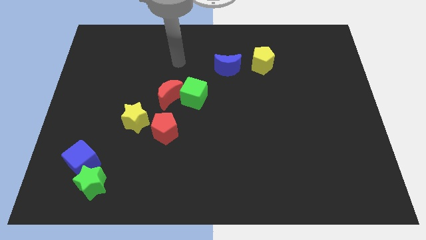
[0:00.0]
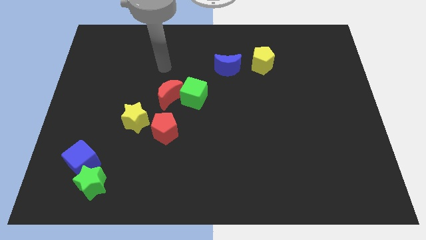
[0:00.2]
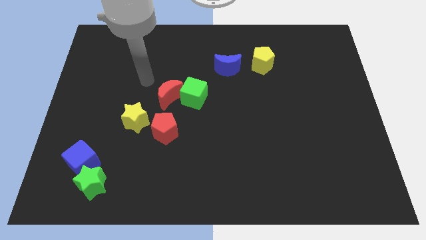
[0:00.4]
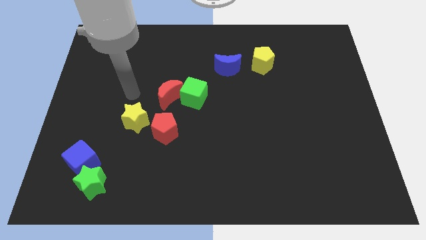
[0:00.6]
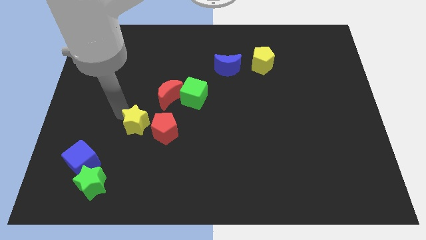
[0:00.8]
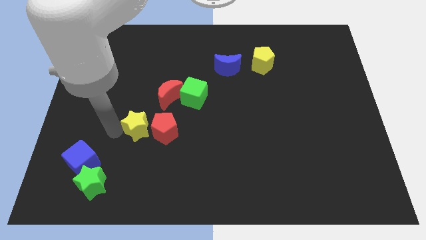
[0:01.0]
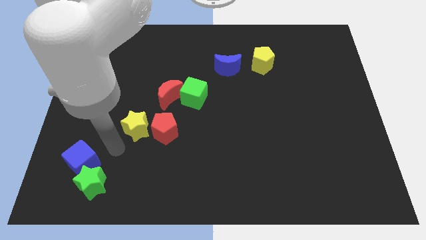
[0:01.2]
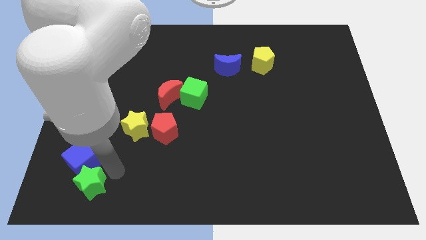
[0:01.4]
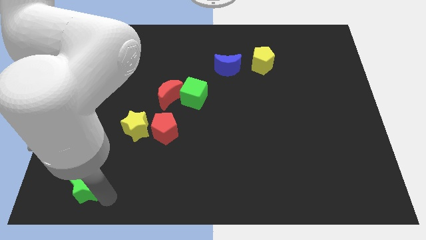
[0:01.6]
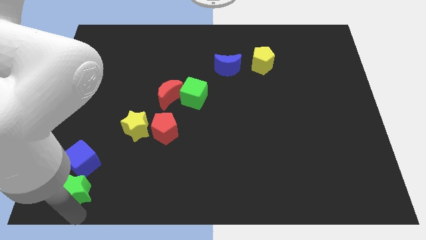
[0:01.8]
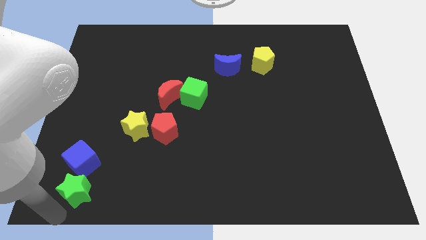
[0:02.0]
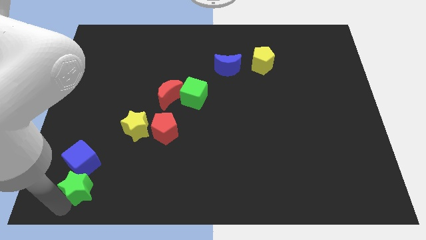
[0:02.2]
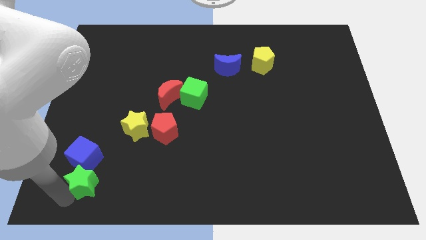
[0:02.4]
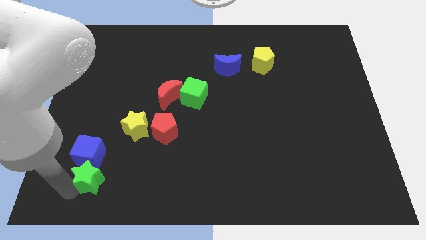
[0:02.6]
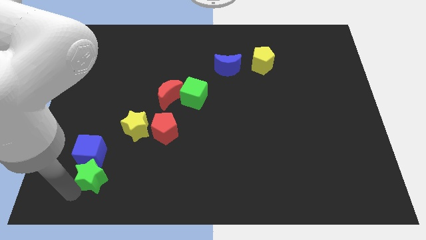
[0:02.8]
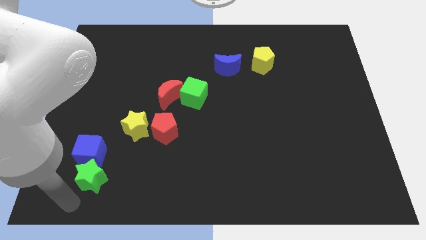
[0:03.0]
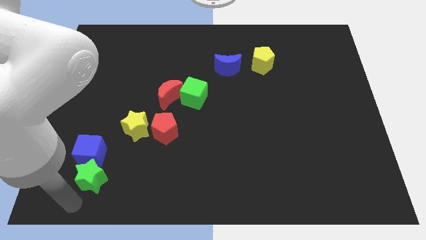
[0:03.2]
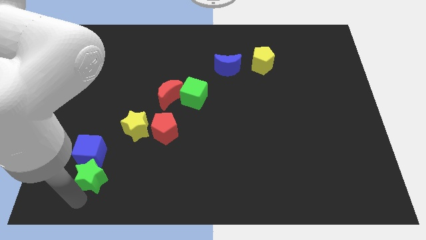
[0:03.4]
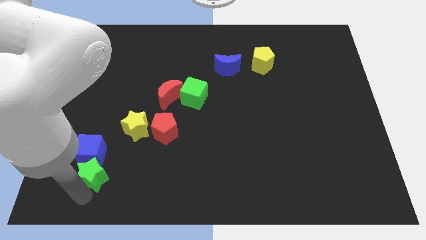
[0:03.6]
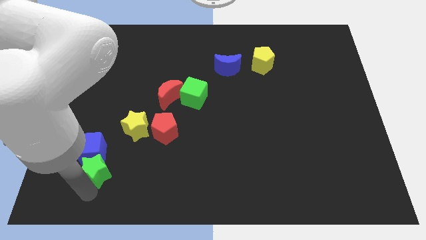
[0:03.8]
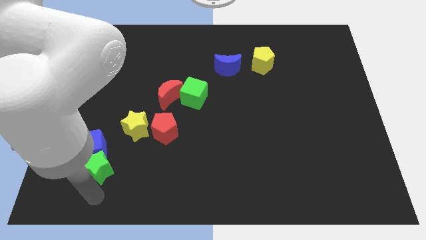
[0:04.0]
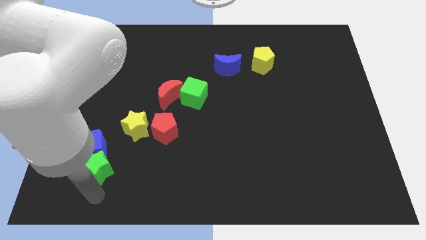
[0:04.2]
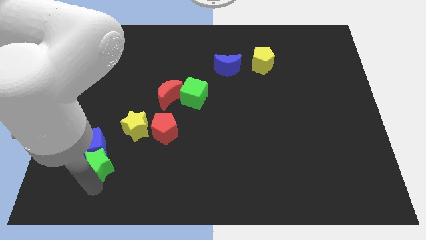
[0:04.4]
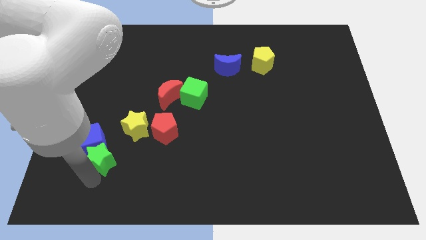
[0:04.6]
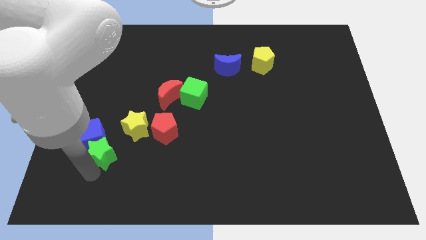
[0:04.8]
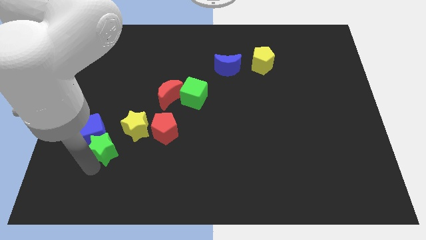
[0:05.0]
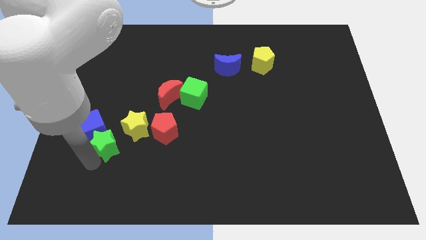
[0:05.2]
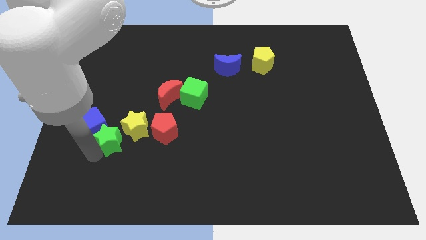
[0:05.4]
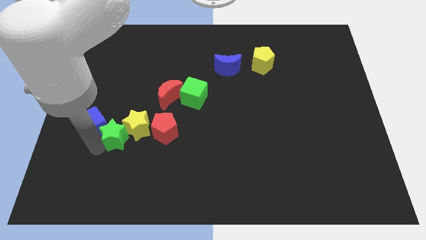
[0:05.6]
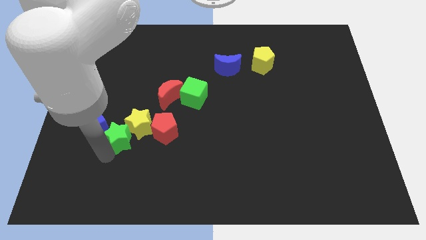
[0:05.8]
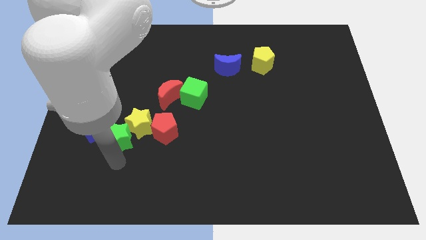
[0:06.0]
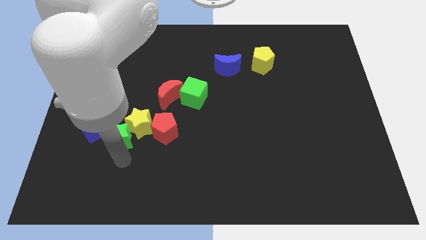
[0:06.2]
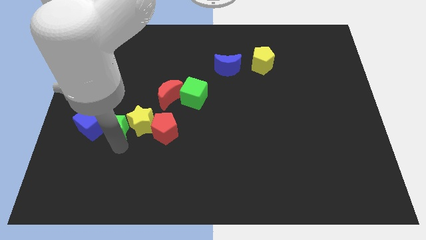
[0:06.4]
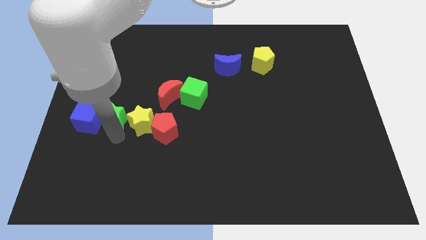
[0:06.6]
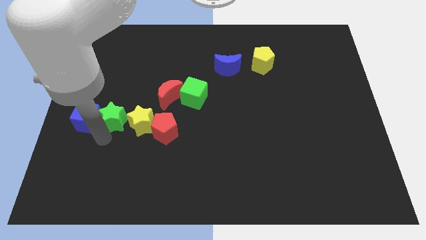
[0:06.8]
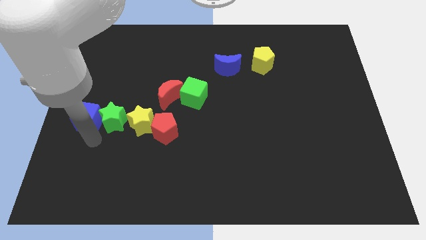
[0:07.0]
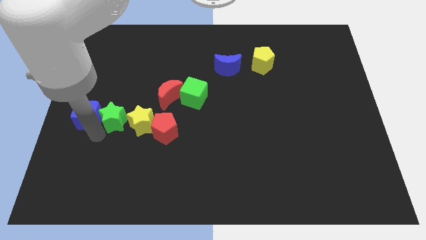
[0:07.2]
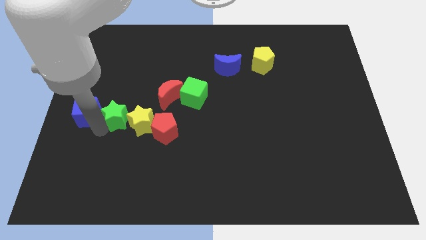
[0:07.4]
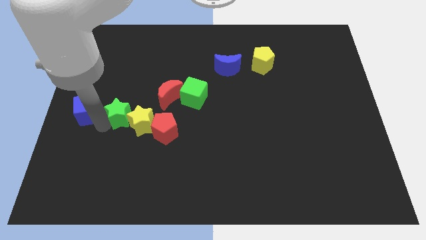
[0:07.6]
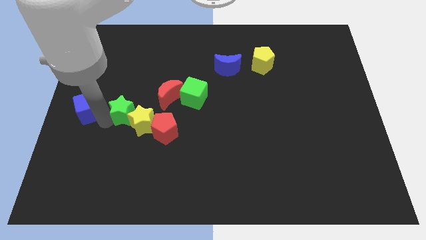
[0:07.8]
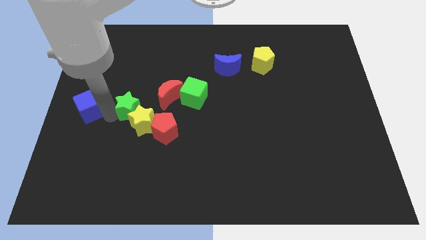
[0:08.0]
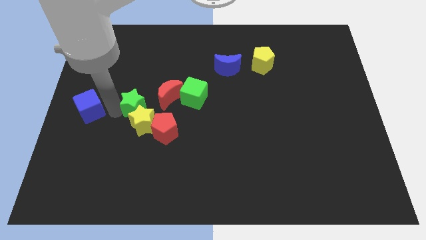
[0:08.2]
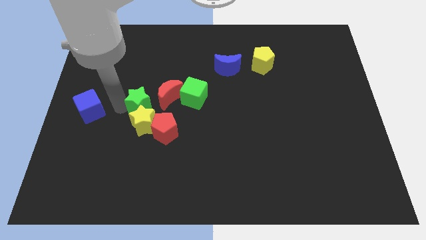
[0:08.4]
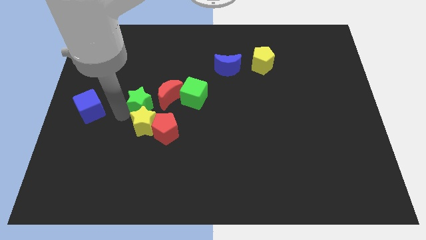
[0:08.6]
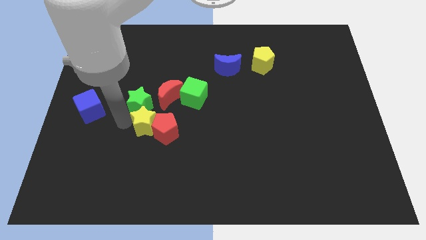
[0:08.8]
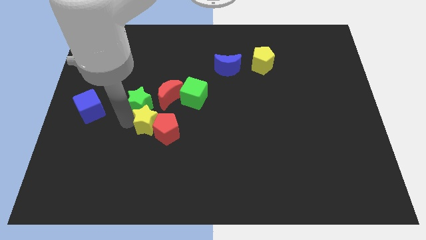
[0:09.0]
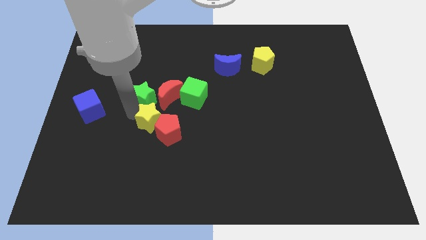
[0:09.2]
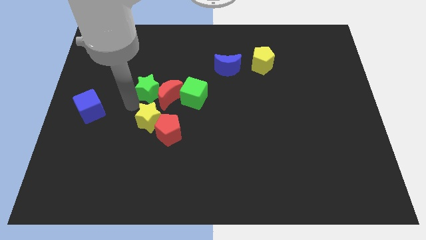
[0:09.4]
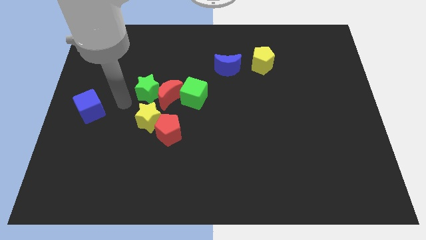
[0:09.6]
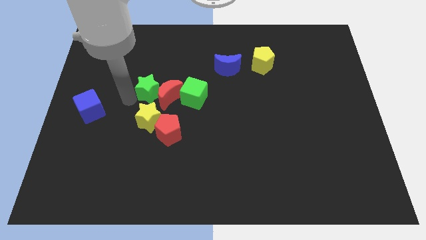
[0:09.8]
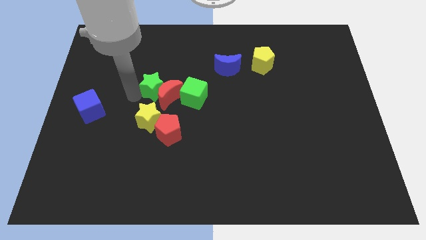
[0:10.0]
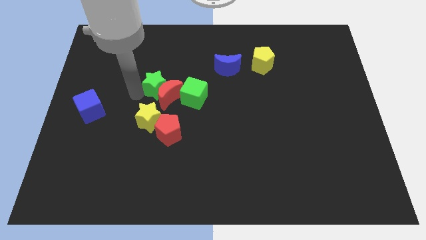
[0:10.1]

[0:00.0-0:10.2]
push the green star to the top left side of the green cube

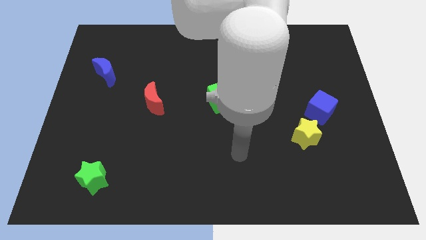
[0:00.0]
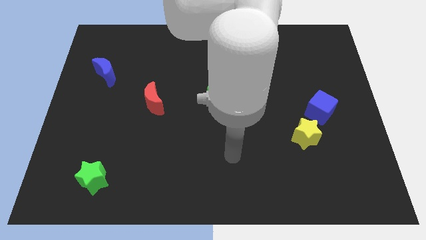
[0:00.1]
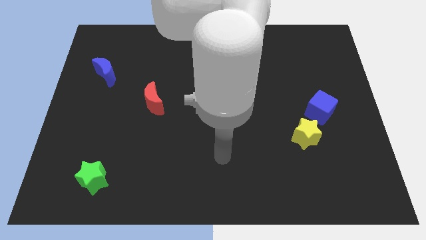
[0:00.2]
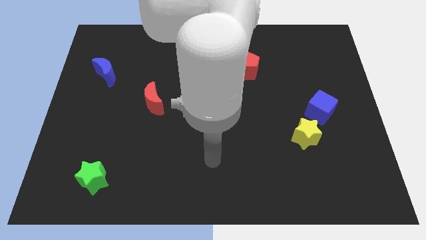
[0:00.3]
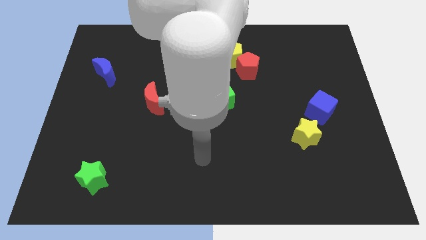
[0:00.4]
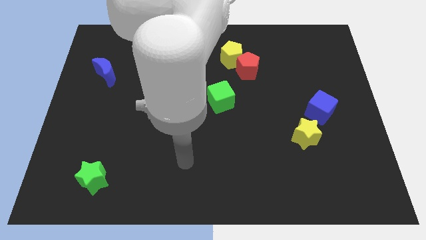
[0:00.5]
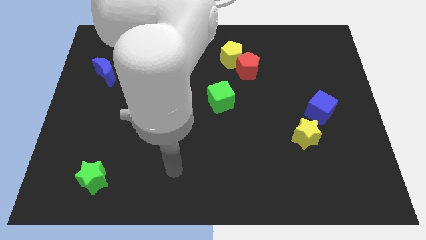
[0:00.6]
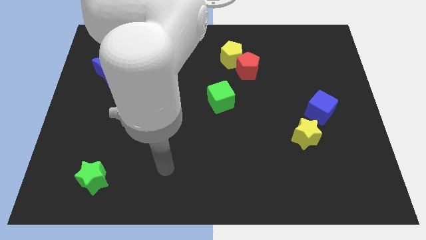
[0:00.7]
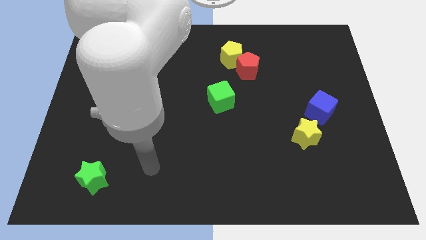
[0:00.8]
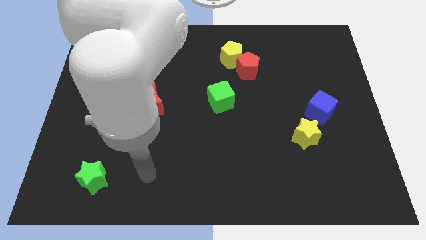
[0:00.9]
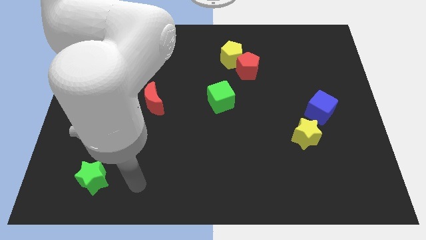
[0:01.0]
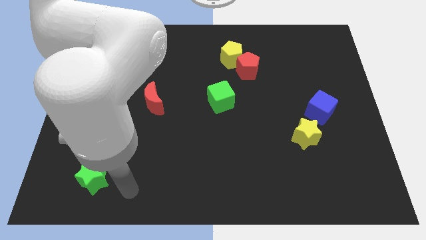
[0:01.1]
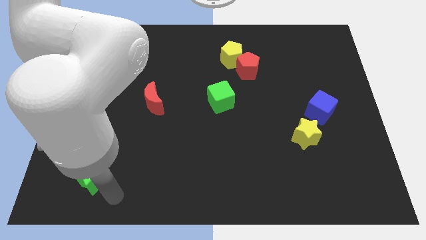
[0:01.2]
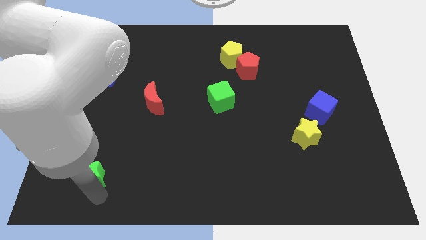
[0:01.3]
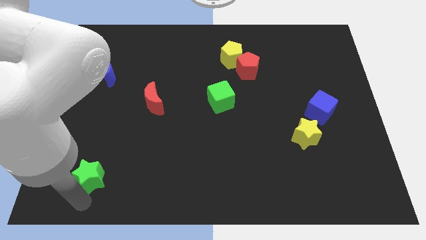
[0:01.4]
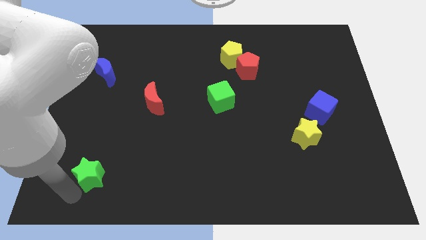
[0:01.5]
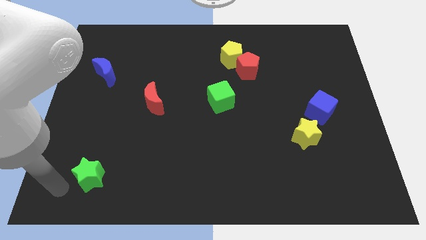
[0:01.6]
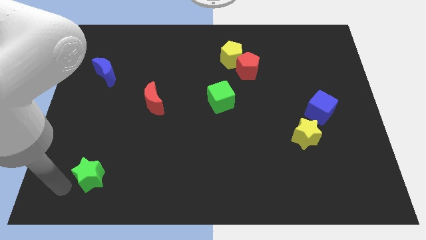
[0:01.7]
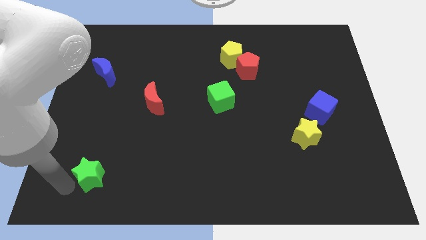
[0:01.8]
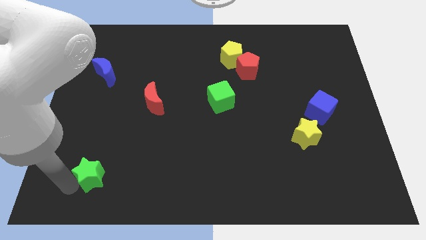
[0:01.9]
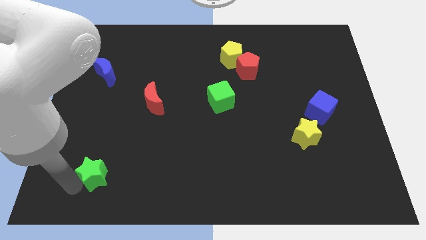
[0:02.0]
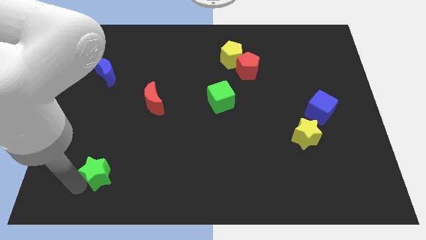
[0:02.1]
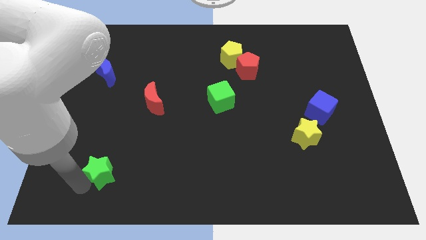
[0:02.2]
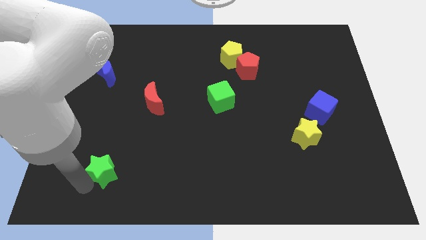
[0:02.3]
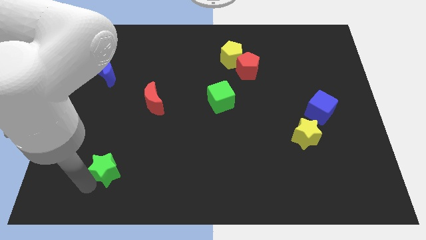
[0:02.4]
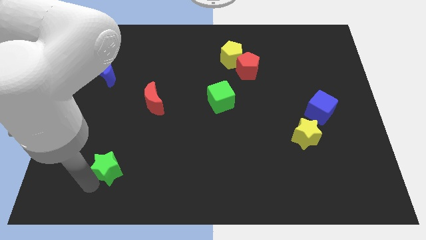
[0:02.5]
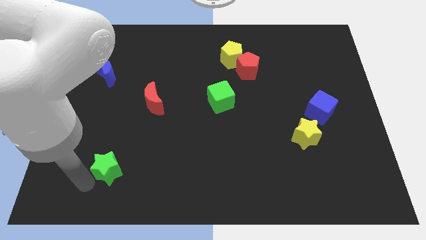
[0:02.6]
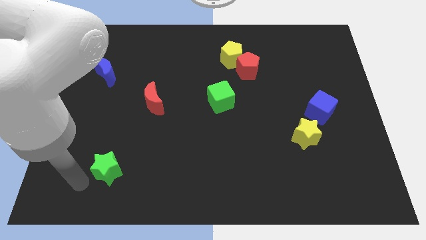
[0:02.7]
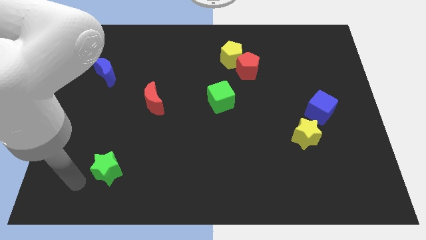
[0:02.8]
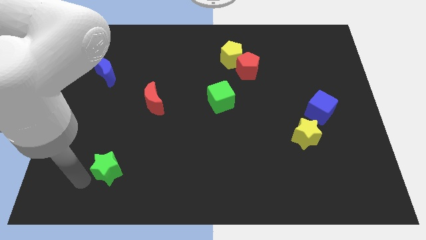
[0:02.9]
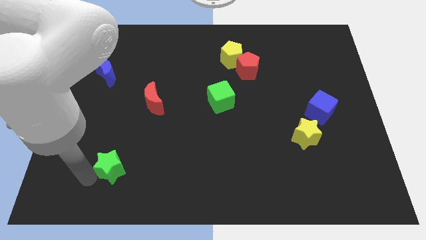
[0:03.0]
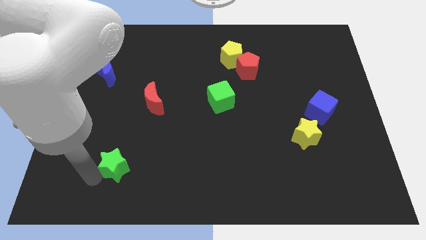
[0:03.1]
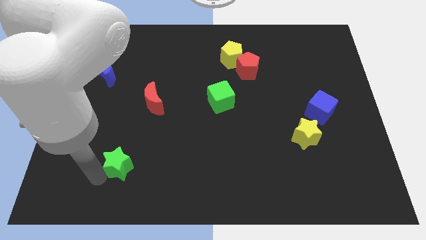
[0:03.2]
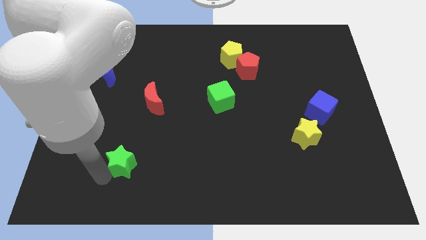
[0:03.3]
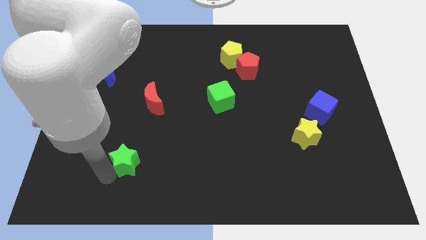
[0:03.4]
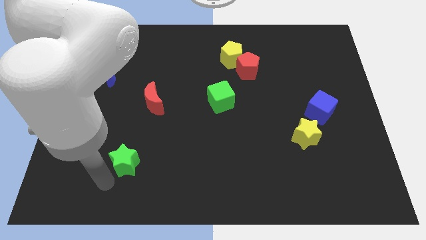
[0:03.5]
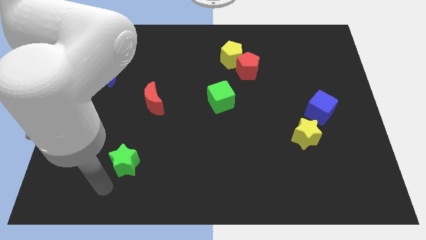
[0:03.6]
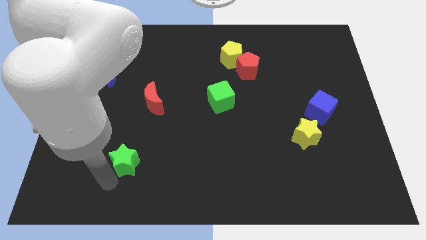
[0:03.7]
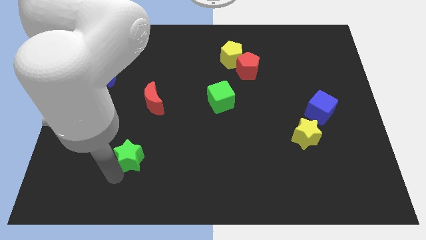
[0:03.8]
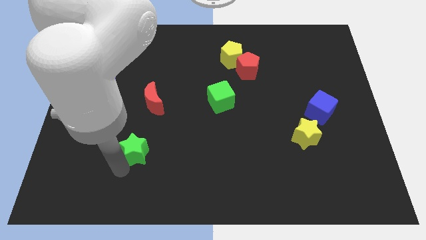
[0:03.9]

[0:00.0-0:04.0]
push the green star below the red moon
